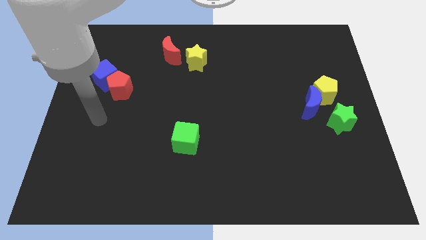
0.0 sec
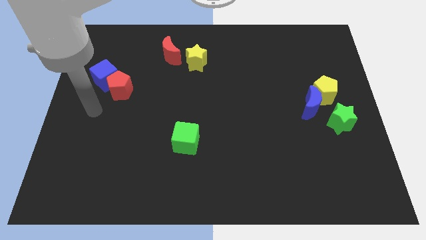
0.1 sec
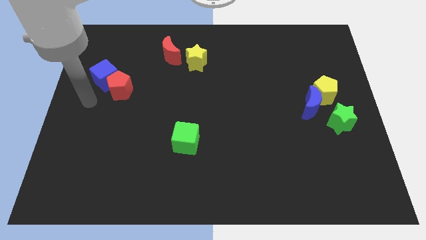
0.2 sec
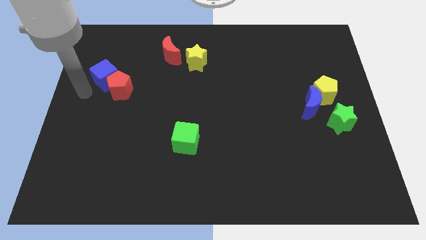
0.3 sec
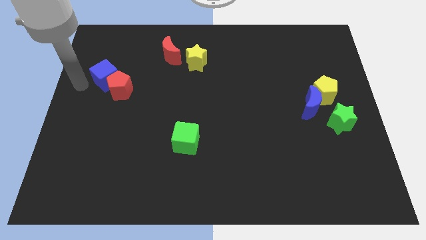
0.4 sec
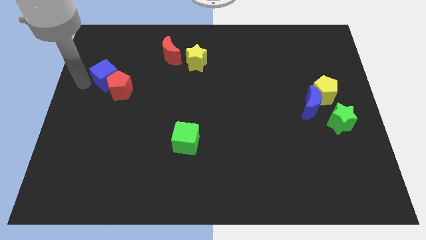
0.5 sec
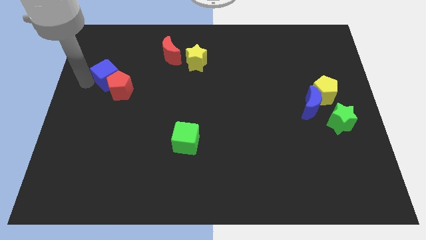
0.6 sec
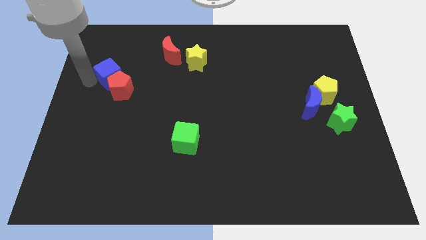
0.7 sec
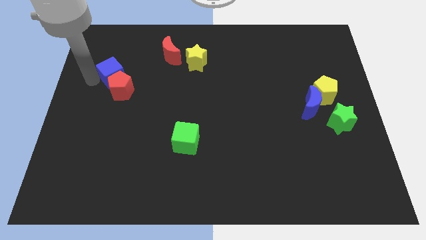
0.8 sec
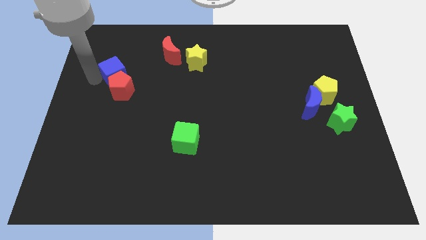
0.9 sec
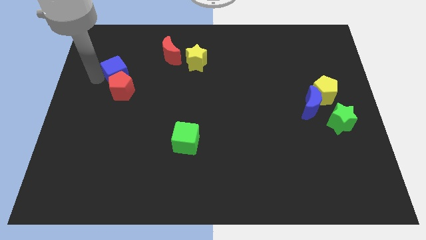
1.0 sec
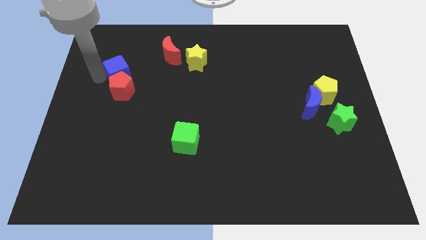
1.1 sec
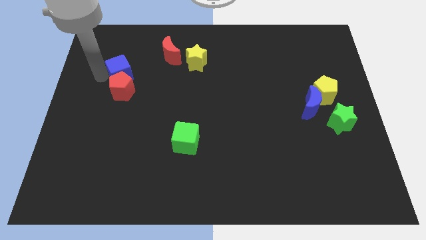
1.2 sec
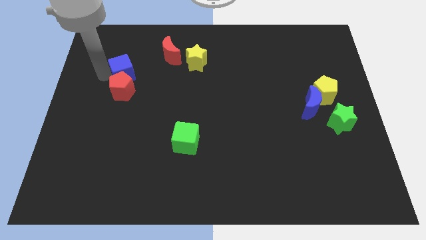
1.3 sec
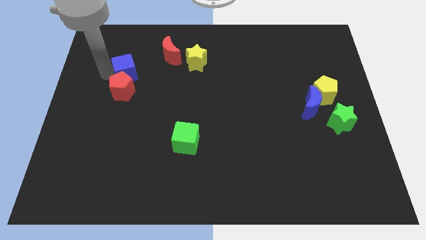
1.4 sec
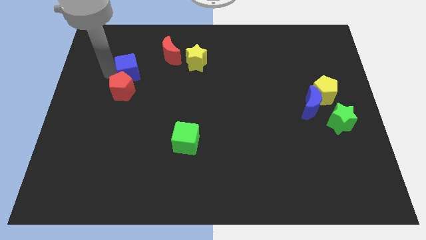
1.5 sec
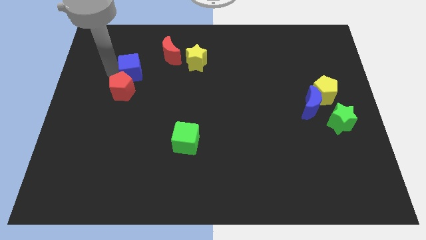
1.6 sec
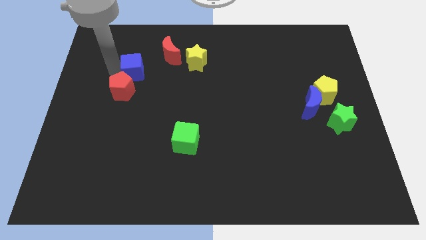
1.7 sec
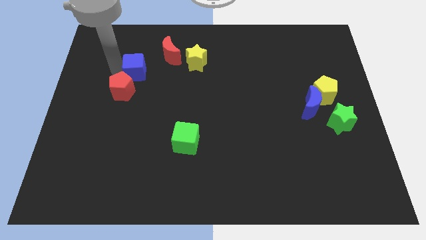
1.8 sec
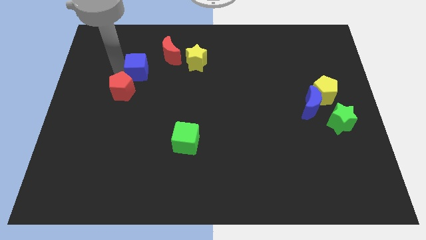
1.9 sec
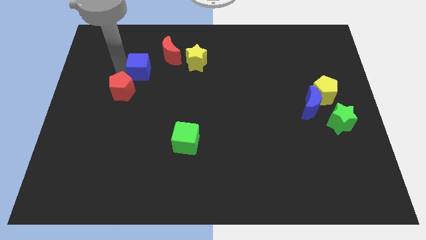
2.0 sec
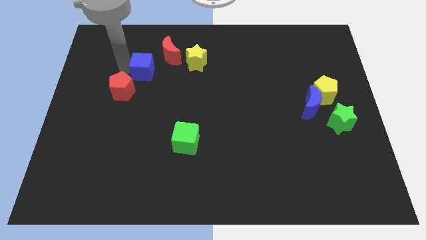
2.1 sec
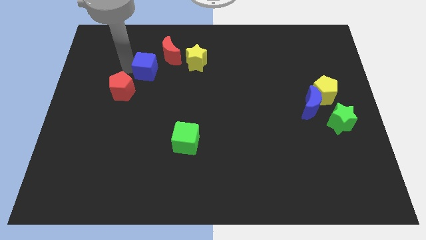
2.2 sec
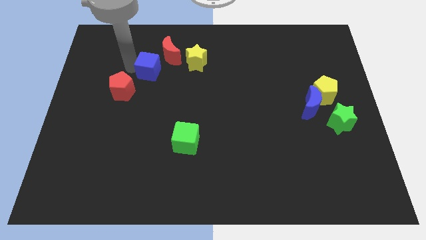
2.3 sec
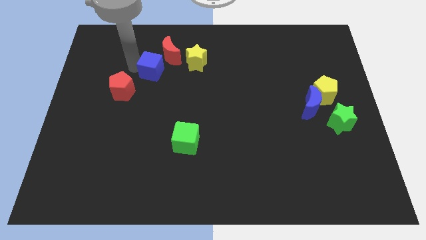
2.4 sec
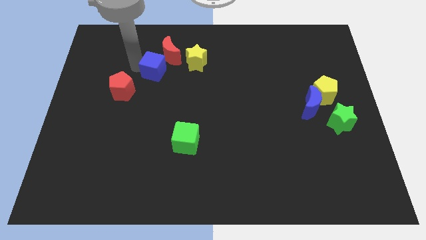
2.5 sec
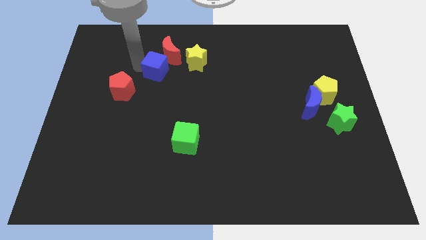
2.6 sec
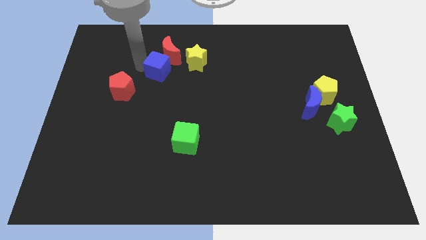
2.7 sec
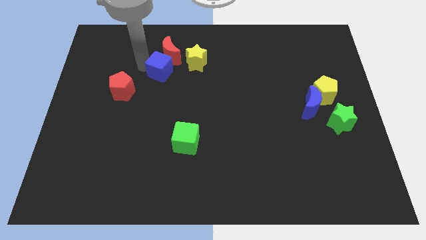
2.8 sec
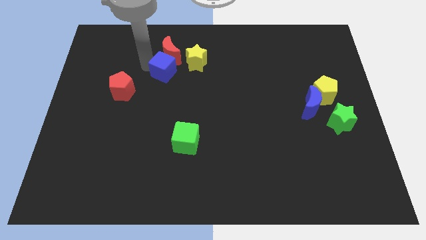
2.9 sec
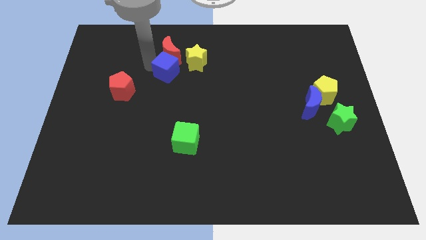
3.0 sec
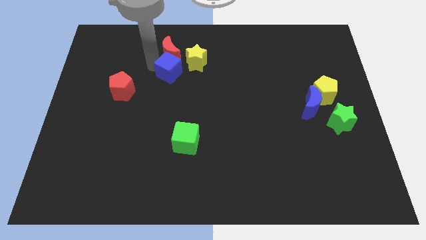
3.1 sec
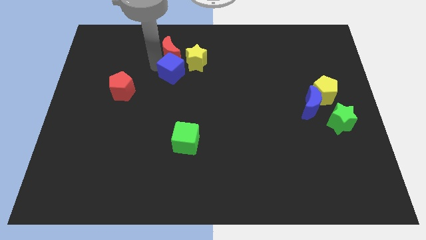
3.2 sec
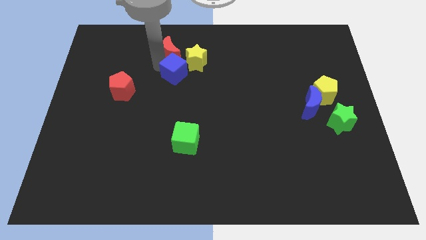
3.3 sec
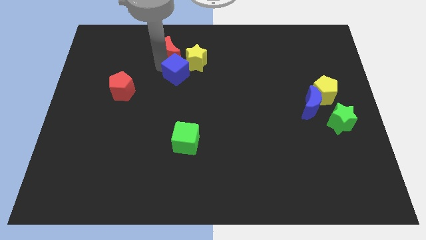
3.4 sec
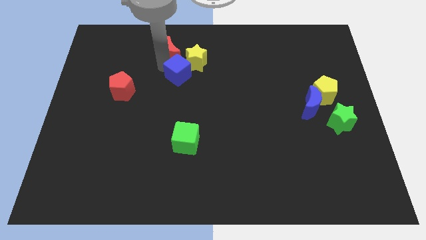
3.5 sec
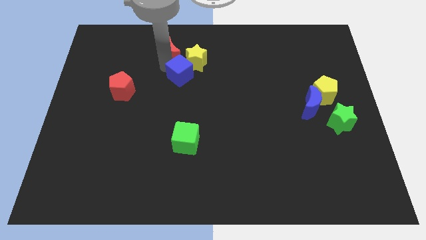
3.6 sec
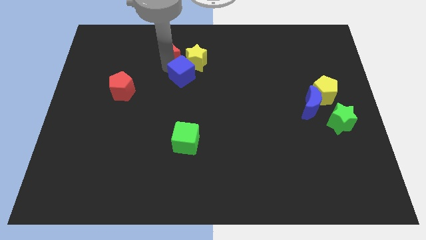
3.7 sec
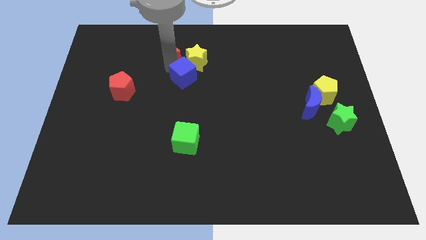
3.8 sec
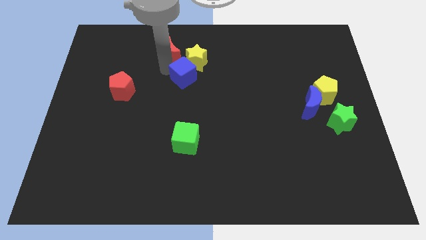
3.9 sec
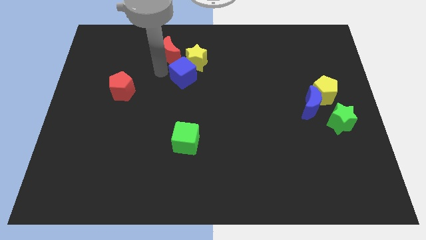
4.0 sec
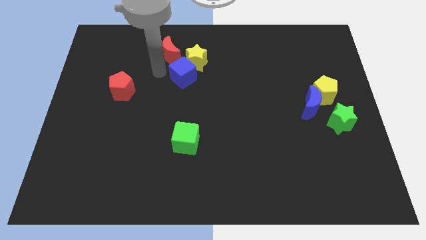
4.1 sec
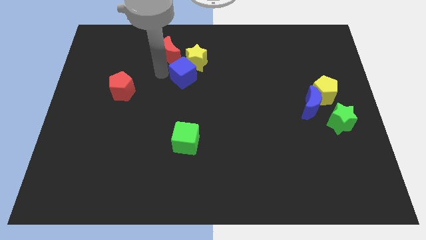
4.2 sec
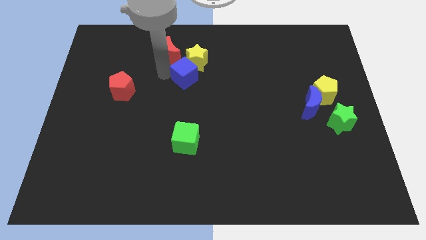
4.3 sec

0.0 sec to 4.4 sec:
move the blue cube right

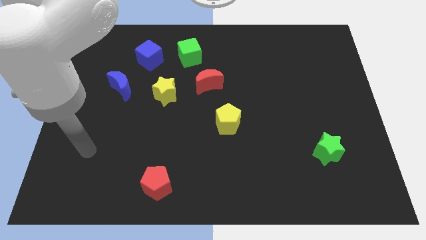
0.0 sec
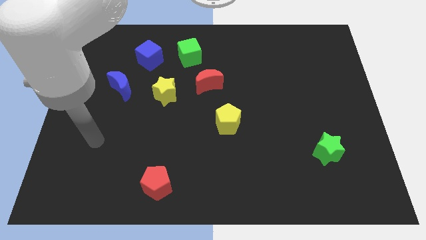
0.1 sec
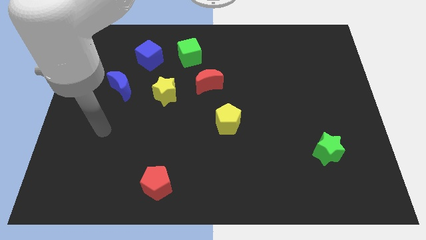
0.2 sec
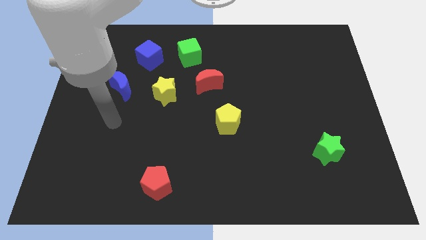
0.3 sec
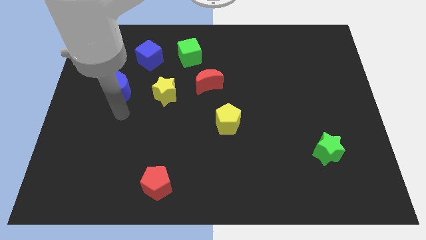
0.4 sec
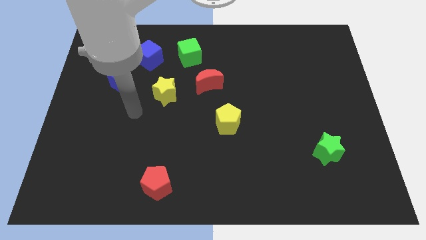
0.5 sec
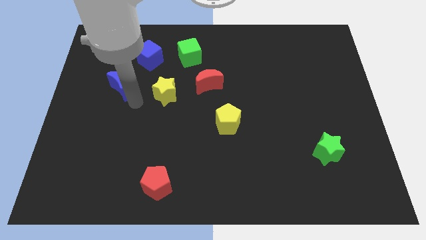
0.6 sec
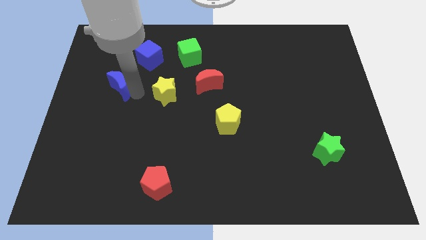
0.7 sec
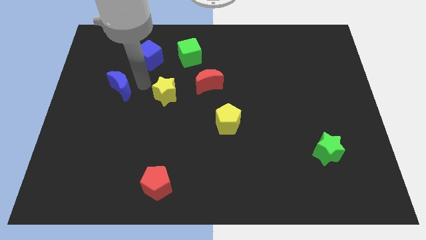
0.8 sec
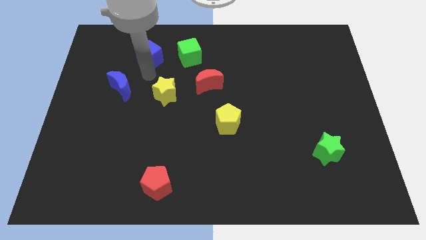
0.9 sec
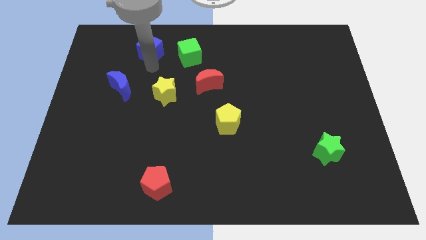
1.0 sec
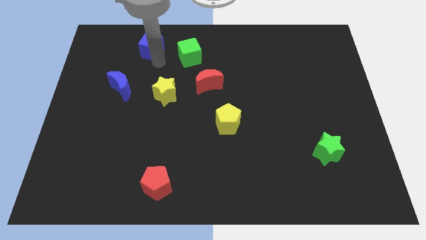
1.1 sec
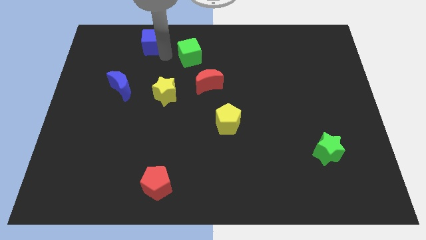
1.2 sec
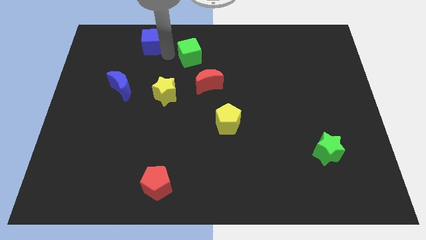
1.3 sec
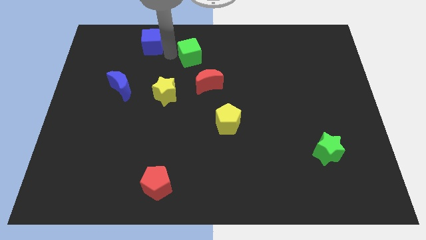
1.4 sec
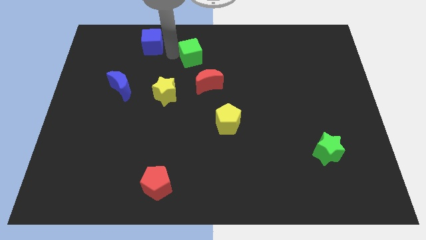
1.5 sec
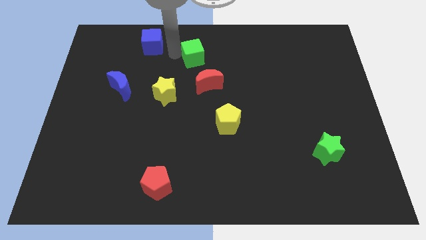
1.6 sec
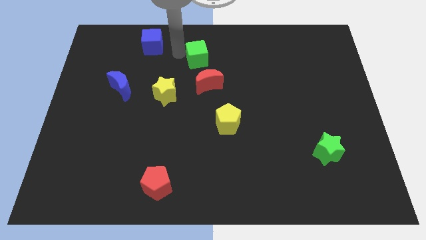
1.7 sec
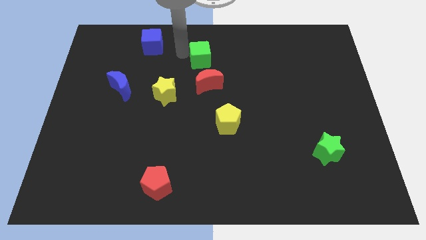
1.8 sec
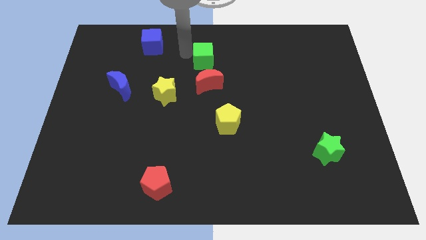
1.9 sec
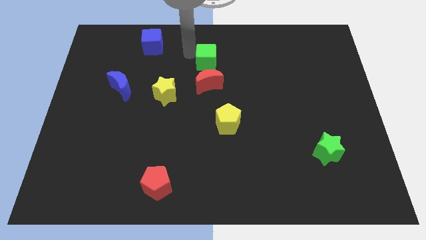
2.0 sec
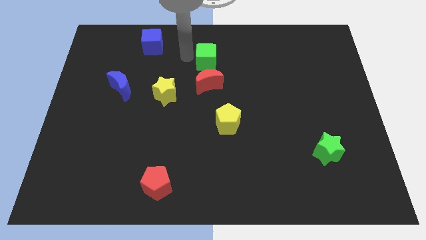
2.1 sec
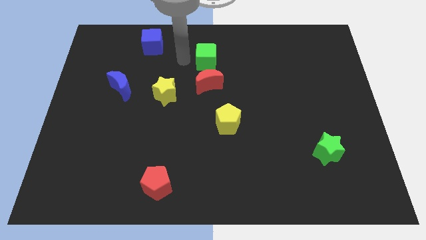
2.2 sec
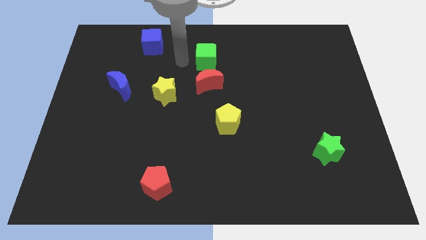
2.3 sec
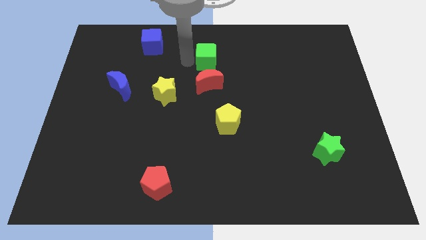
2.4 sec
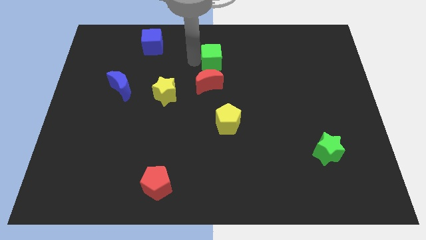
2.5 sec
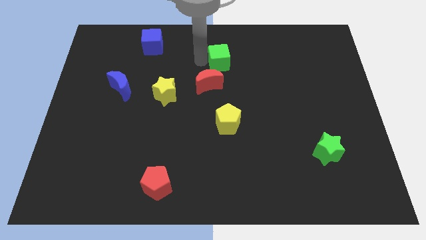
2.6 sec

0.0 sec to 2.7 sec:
push the green cube to the right a little

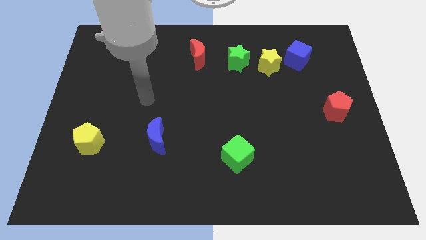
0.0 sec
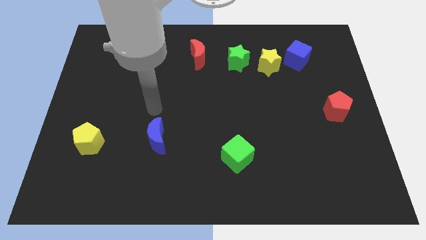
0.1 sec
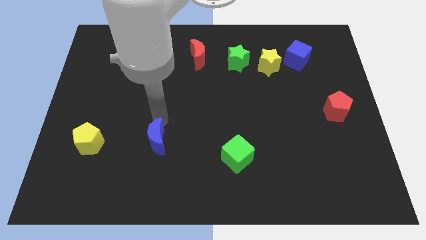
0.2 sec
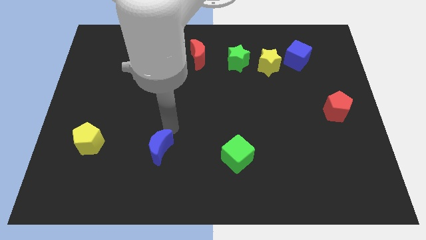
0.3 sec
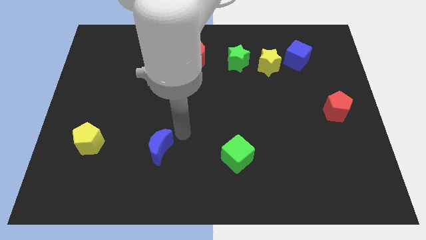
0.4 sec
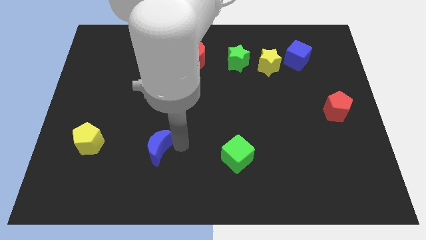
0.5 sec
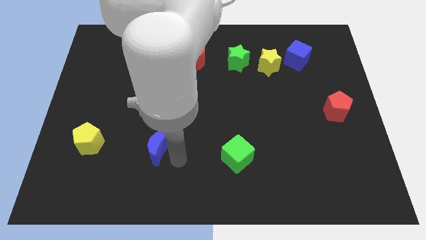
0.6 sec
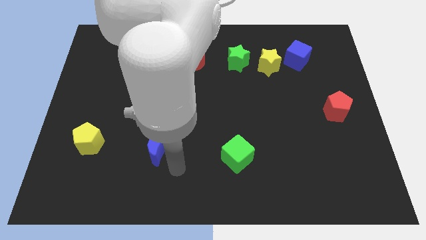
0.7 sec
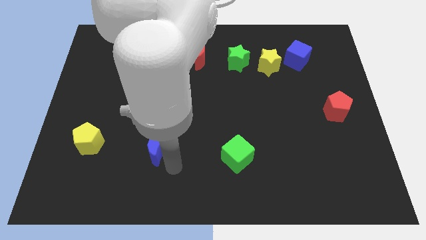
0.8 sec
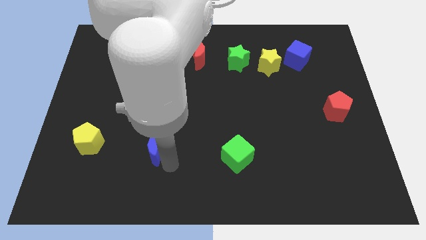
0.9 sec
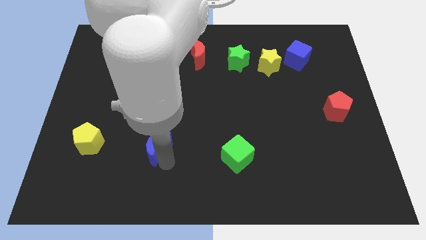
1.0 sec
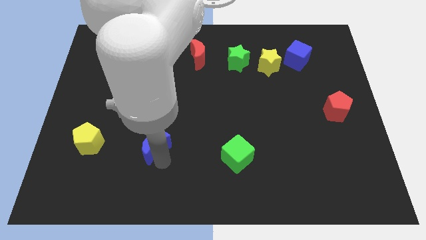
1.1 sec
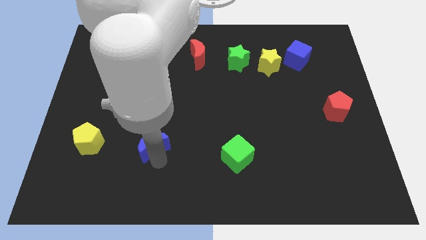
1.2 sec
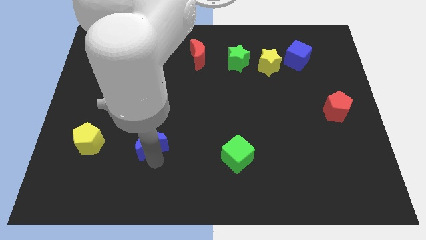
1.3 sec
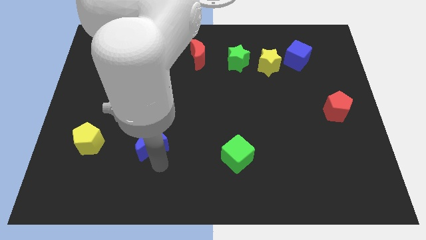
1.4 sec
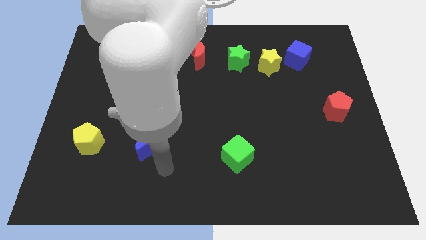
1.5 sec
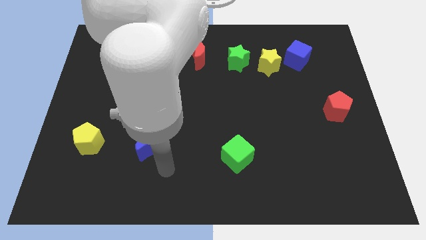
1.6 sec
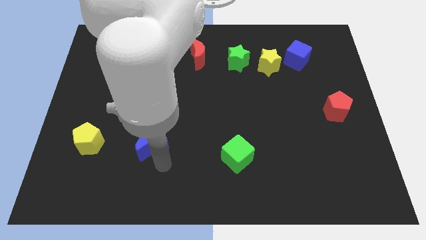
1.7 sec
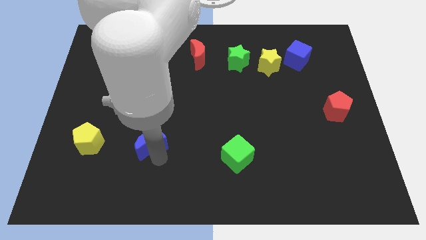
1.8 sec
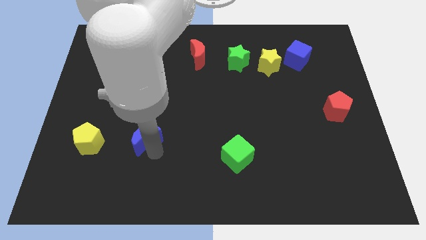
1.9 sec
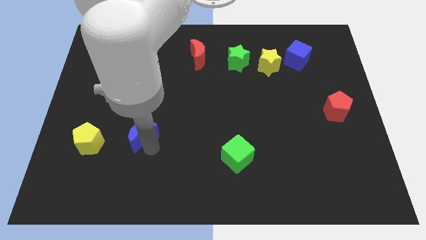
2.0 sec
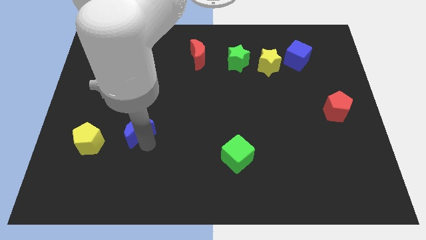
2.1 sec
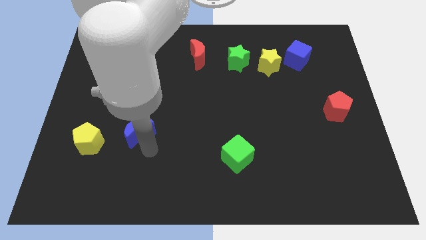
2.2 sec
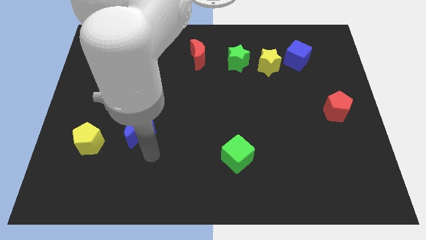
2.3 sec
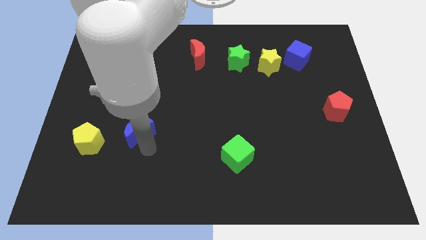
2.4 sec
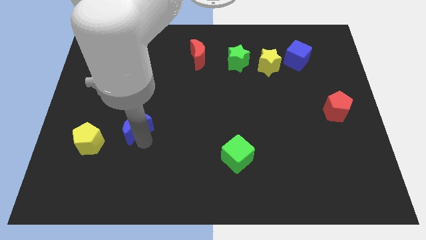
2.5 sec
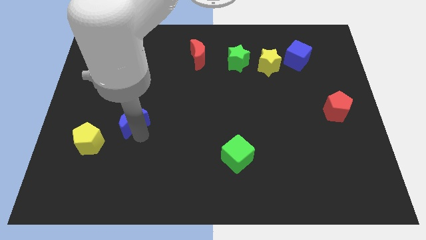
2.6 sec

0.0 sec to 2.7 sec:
push the blue moon slightly diagonally up and to the left
